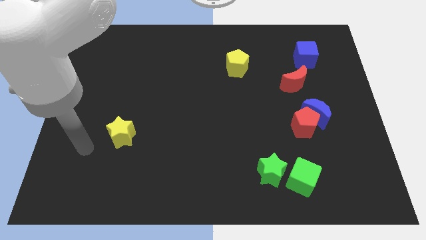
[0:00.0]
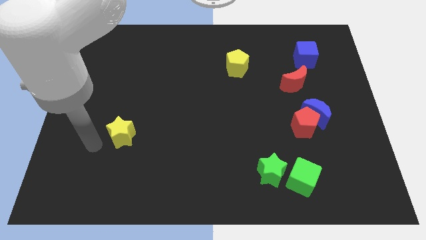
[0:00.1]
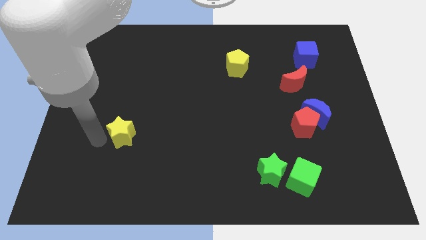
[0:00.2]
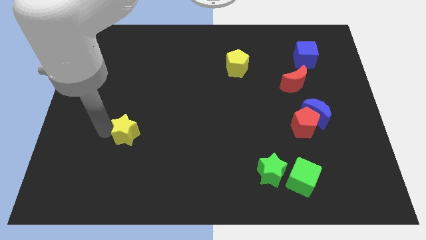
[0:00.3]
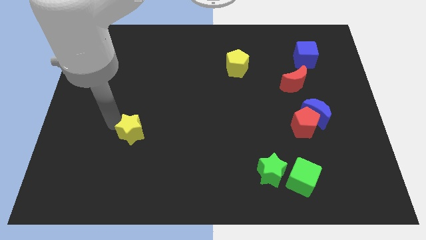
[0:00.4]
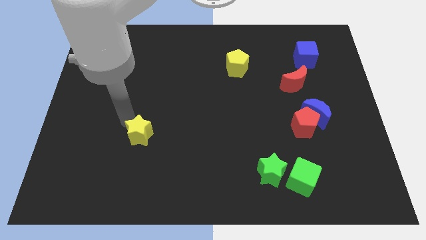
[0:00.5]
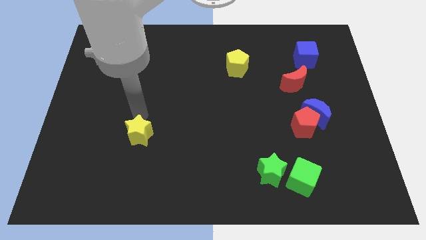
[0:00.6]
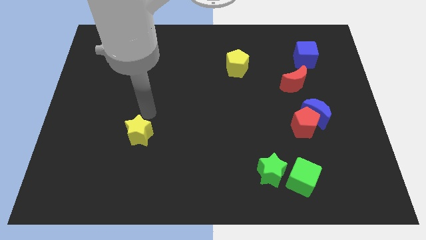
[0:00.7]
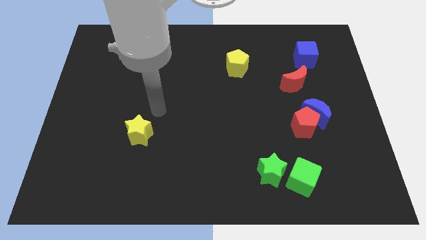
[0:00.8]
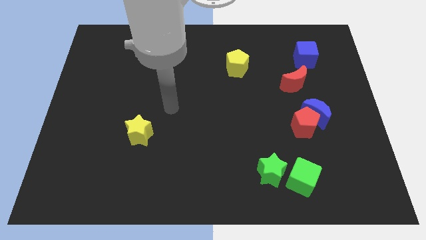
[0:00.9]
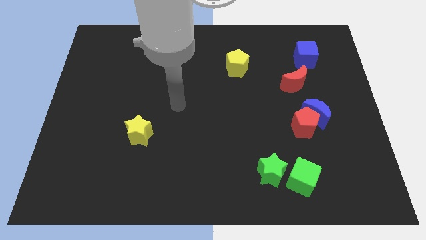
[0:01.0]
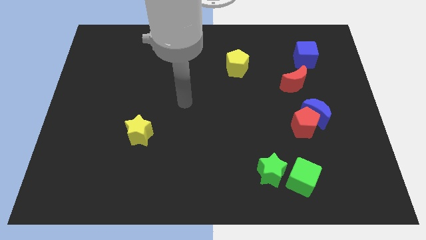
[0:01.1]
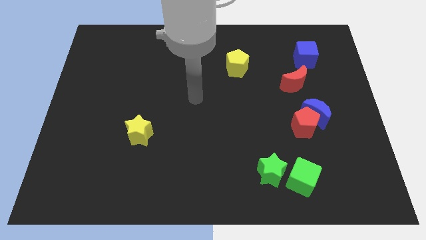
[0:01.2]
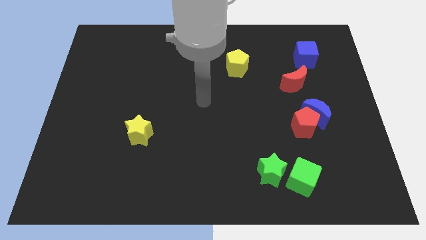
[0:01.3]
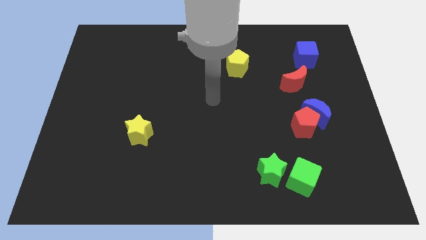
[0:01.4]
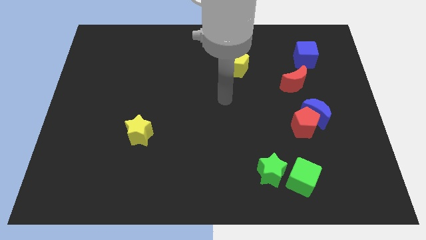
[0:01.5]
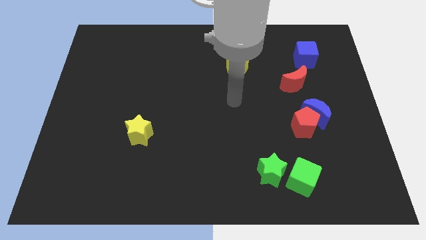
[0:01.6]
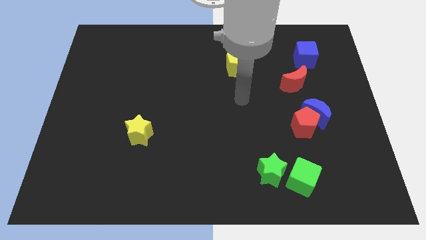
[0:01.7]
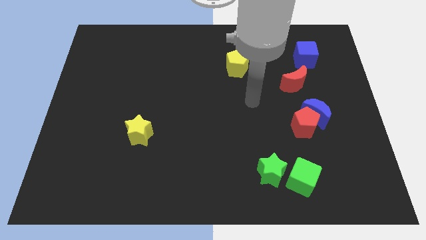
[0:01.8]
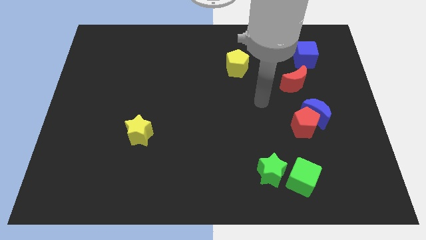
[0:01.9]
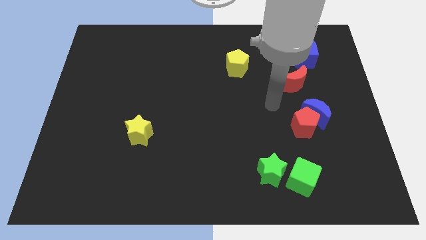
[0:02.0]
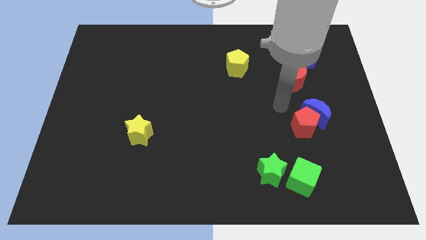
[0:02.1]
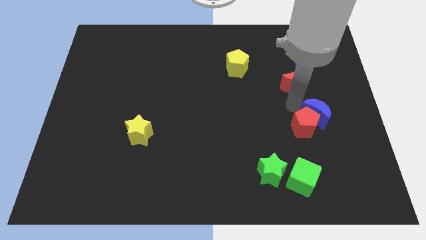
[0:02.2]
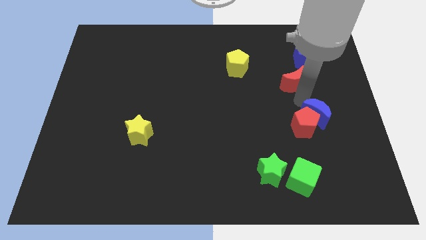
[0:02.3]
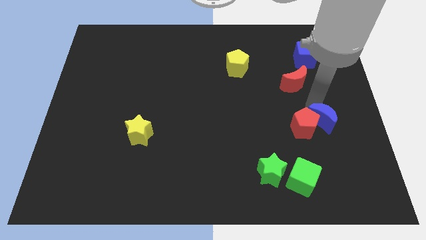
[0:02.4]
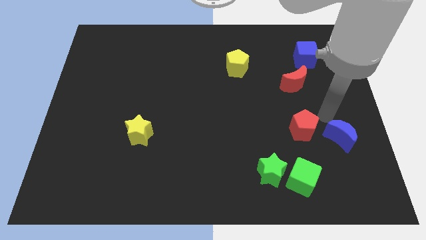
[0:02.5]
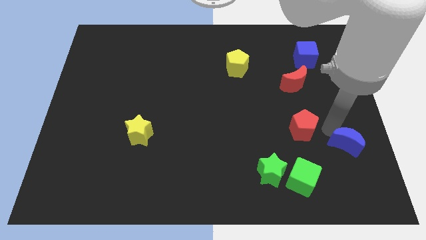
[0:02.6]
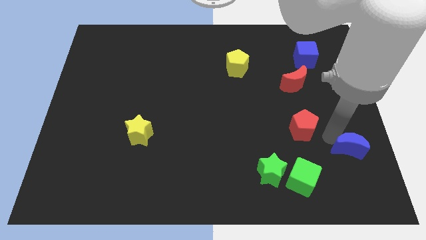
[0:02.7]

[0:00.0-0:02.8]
pull the red pentagon apart from the blue moon

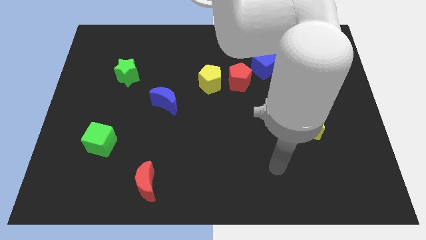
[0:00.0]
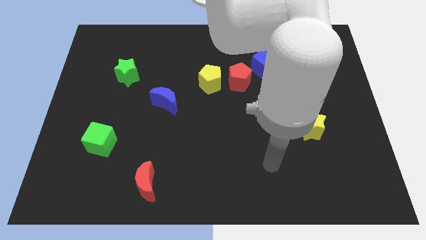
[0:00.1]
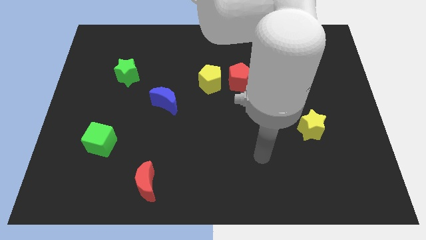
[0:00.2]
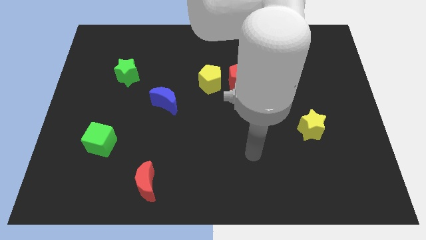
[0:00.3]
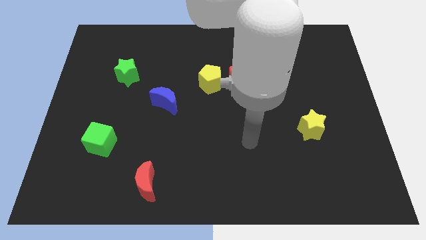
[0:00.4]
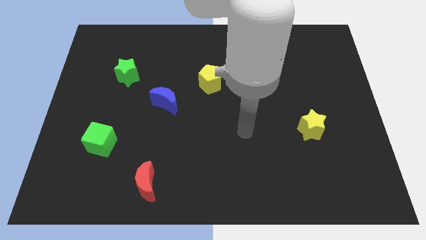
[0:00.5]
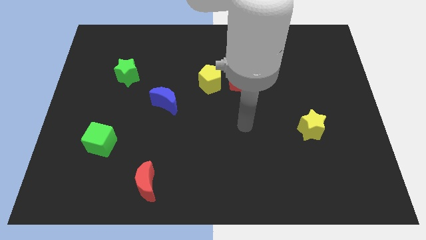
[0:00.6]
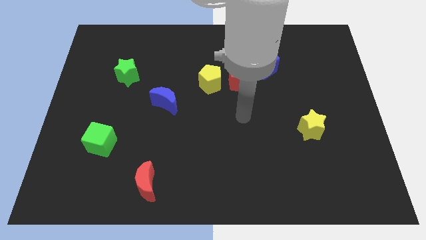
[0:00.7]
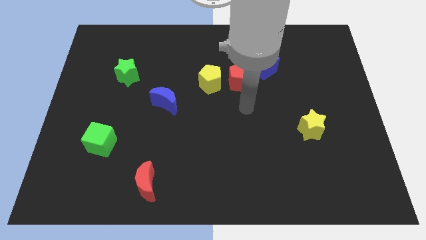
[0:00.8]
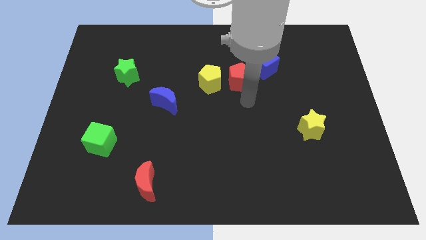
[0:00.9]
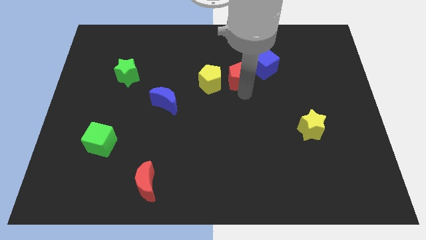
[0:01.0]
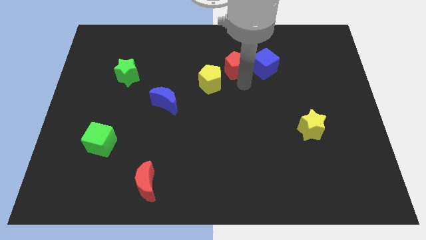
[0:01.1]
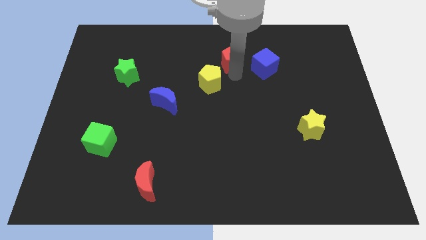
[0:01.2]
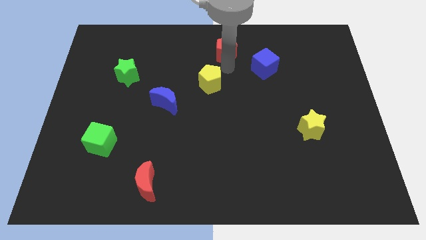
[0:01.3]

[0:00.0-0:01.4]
separate the yellow pentagon from the red pentagon

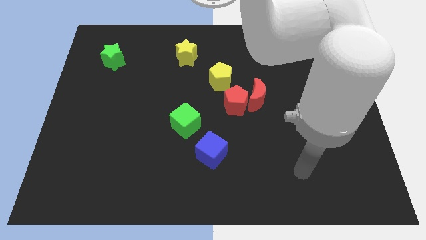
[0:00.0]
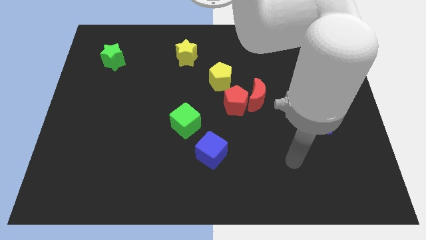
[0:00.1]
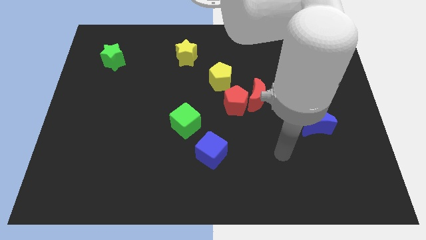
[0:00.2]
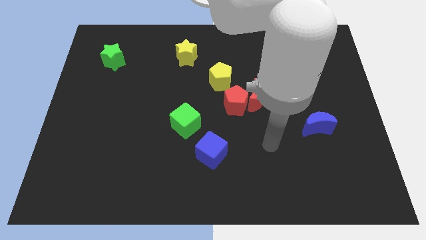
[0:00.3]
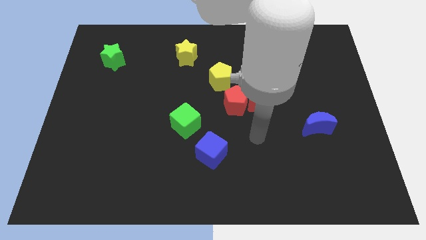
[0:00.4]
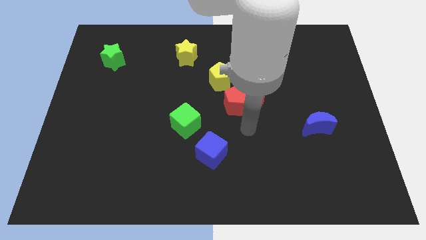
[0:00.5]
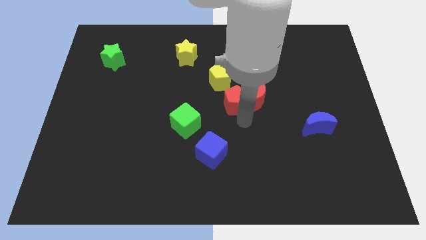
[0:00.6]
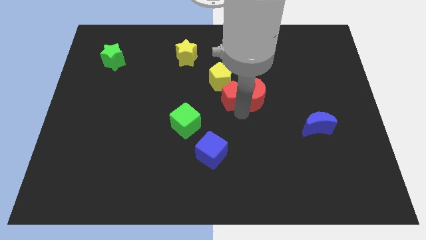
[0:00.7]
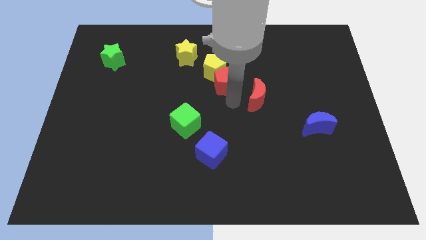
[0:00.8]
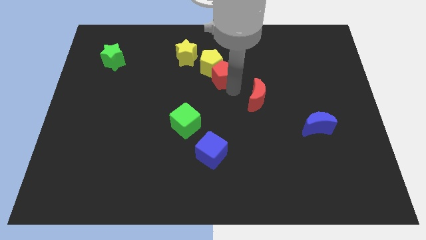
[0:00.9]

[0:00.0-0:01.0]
pull the red moon apart from the red pentagon

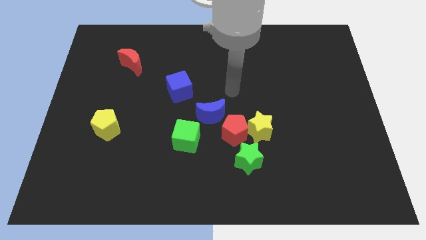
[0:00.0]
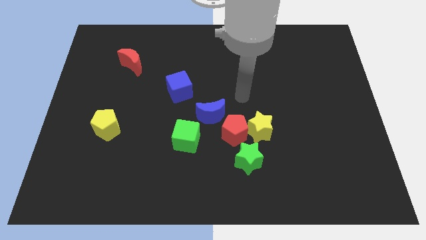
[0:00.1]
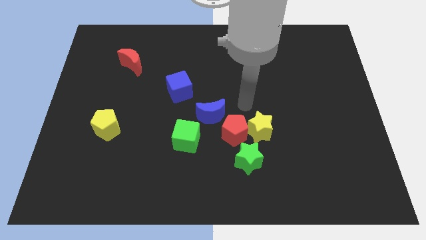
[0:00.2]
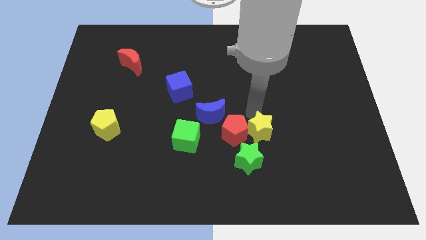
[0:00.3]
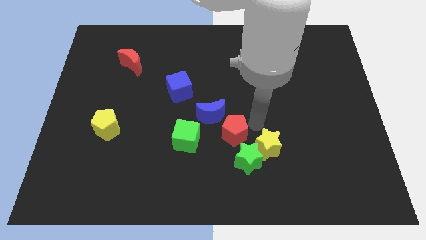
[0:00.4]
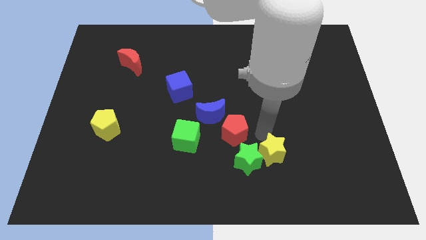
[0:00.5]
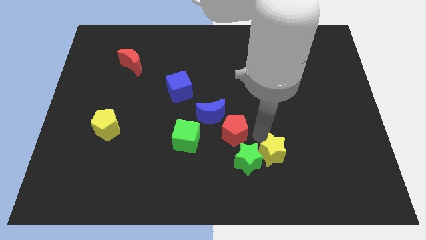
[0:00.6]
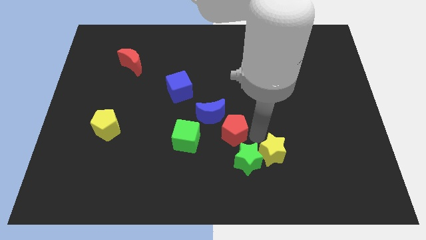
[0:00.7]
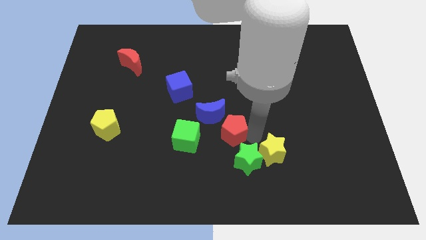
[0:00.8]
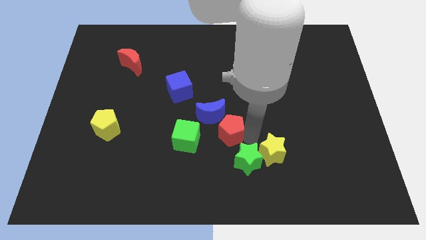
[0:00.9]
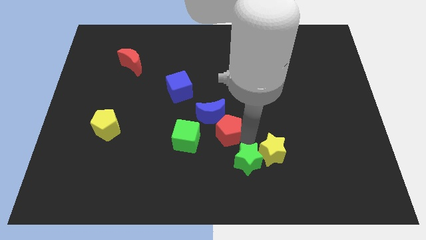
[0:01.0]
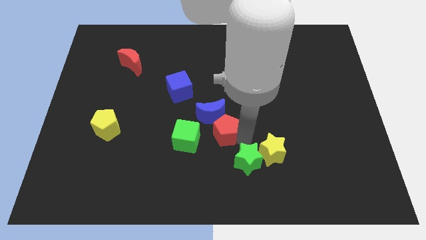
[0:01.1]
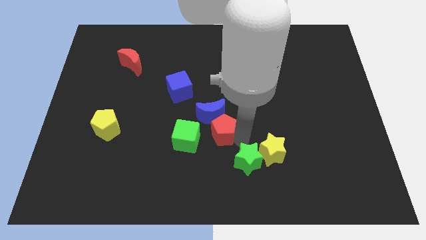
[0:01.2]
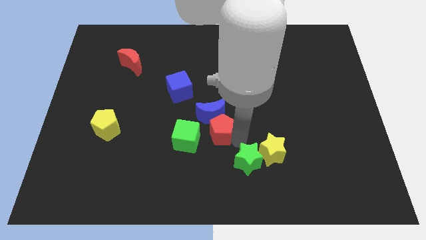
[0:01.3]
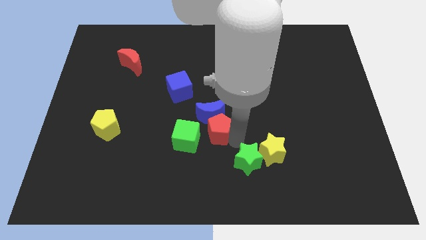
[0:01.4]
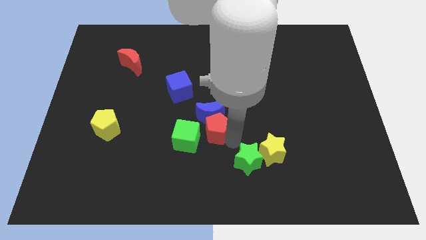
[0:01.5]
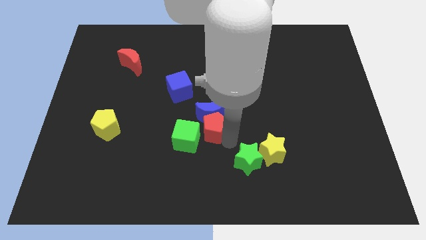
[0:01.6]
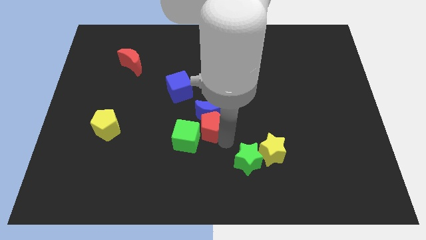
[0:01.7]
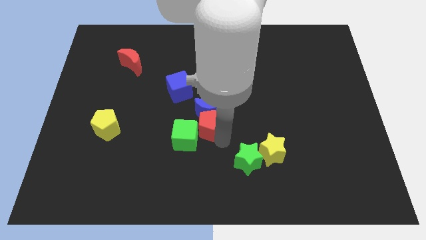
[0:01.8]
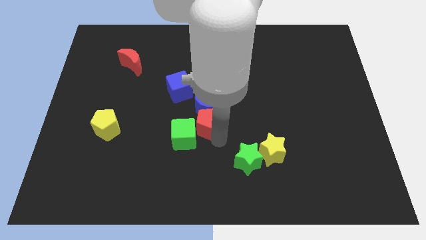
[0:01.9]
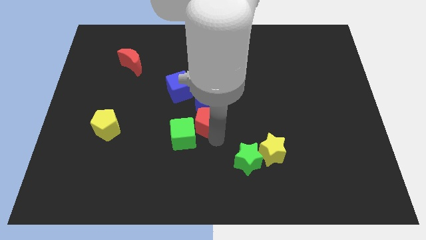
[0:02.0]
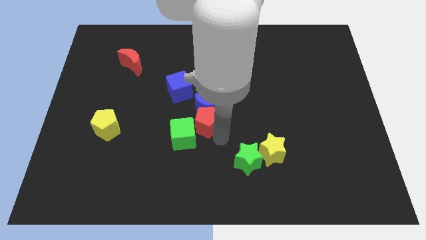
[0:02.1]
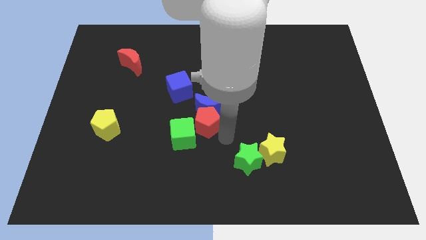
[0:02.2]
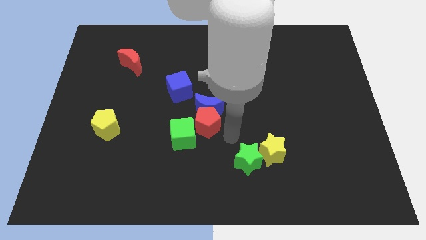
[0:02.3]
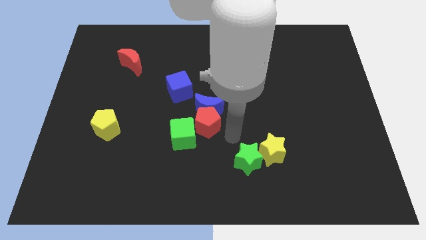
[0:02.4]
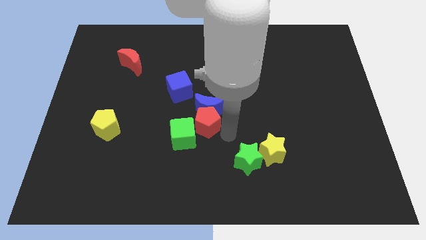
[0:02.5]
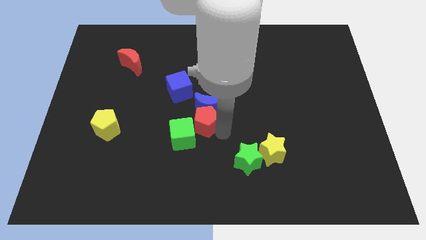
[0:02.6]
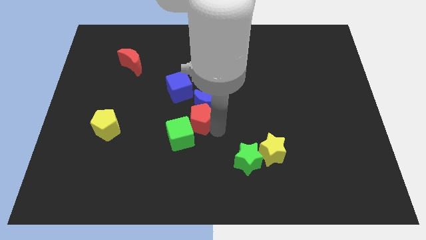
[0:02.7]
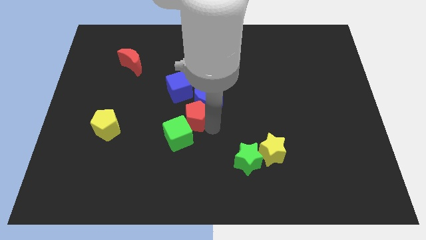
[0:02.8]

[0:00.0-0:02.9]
pull the red pentagon apart from the group

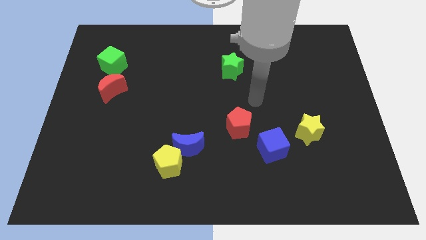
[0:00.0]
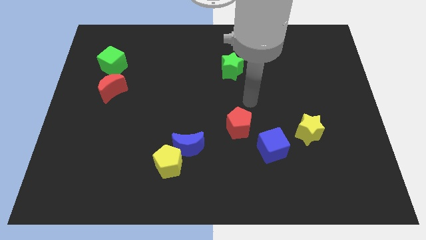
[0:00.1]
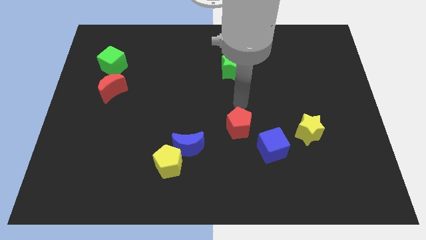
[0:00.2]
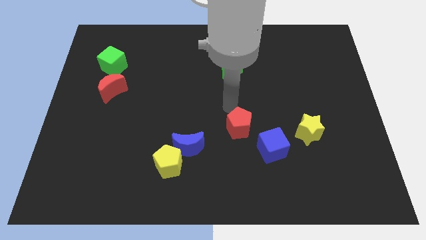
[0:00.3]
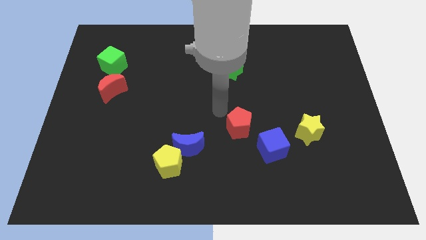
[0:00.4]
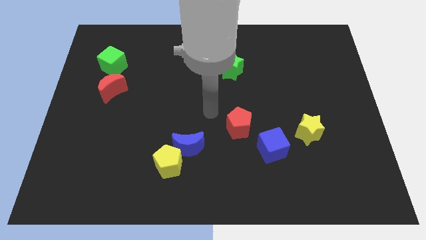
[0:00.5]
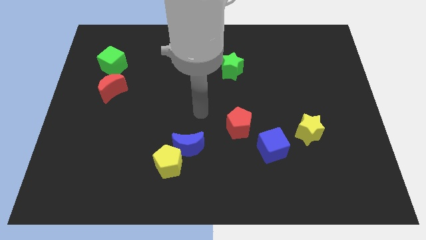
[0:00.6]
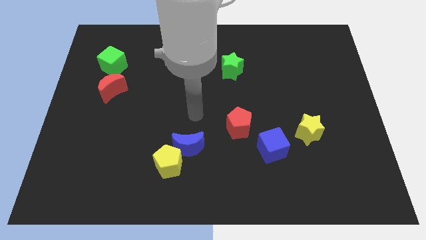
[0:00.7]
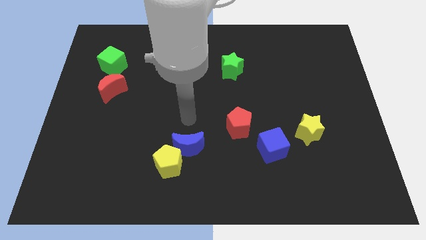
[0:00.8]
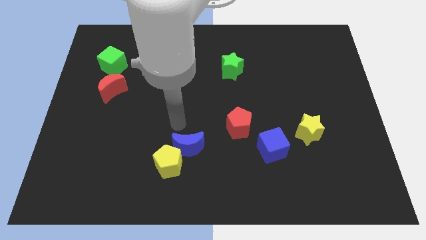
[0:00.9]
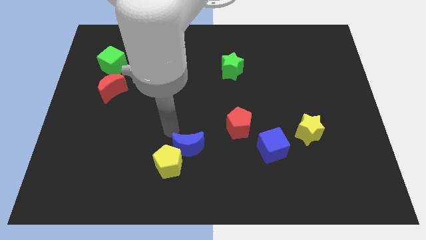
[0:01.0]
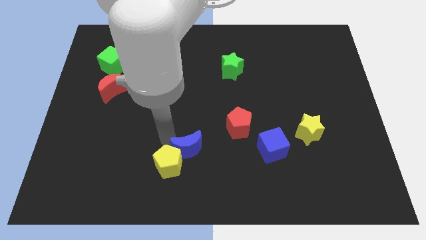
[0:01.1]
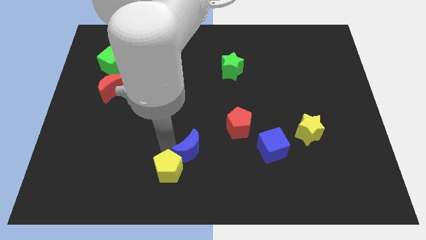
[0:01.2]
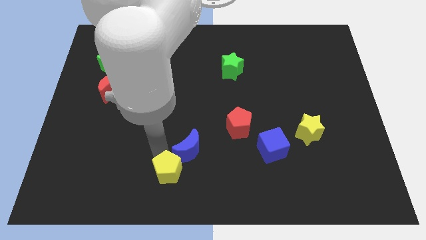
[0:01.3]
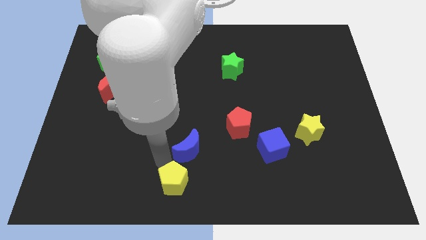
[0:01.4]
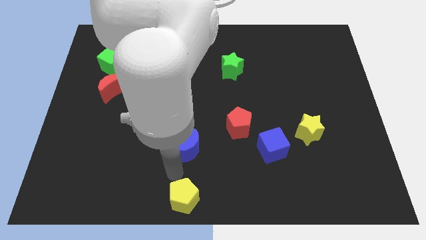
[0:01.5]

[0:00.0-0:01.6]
separate the blue moon from the yellow pentagon
